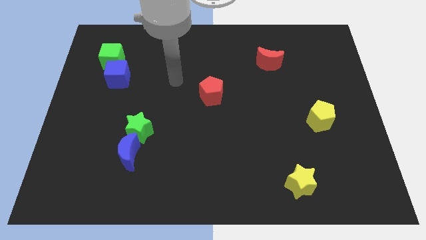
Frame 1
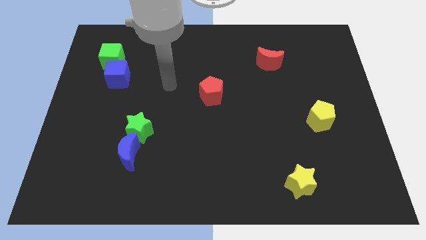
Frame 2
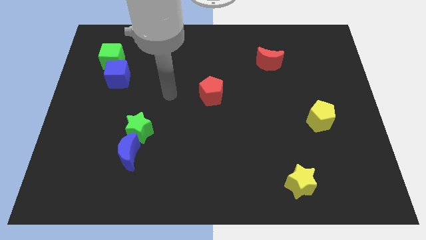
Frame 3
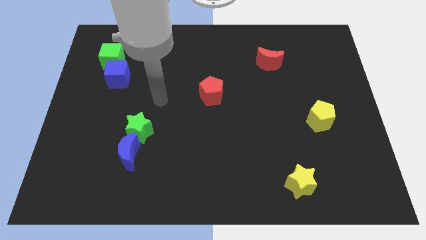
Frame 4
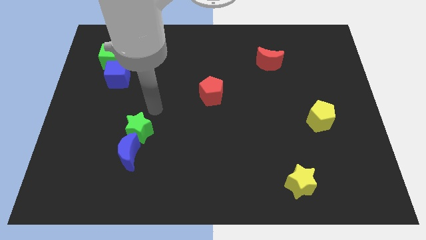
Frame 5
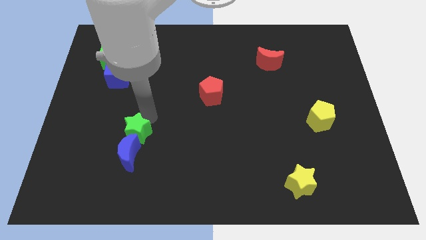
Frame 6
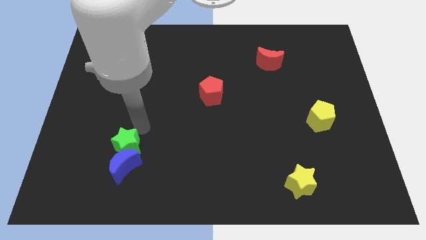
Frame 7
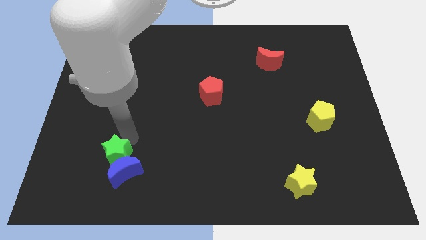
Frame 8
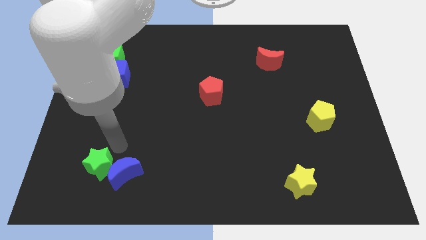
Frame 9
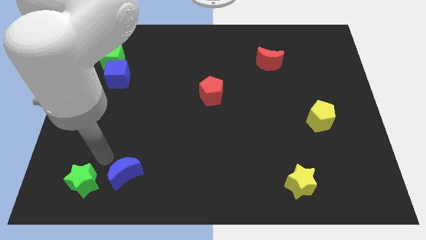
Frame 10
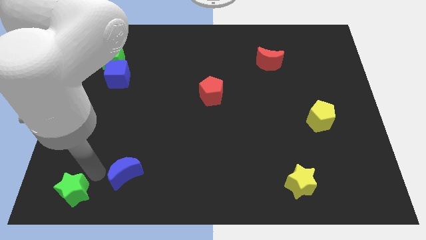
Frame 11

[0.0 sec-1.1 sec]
pull the blue moon apart from the green star

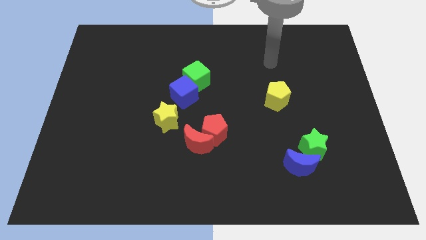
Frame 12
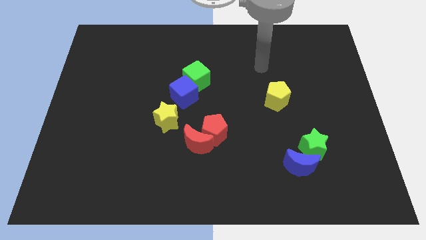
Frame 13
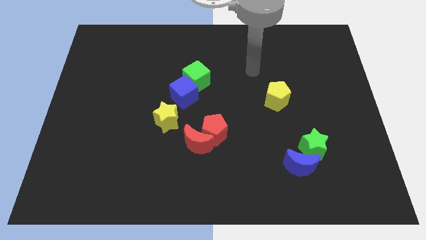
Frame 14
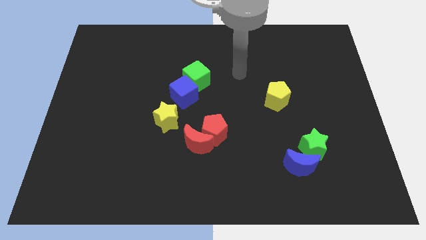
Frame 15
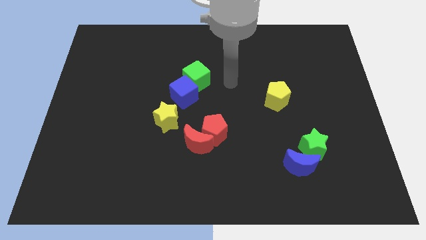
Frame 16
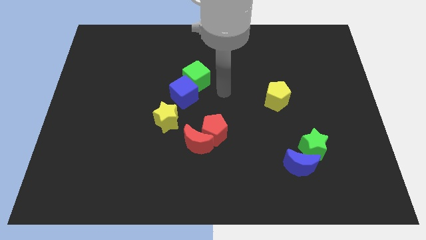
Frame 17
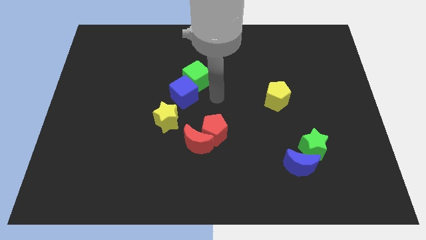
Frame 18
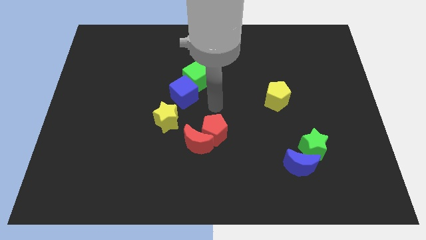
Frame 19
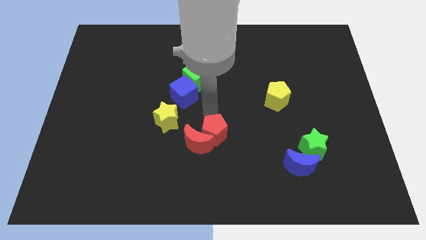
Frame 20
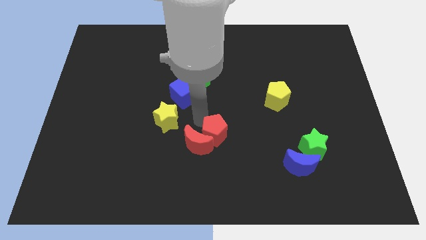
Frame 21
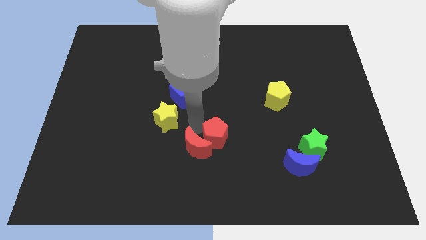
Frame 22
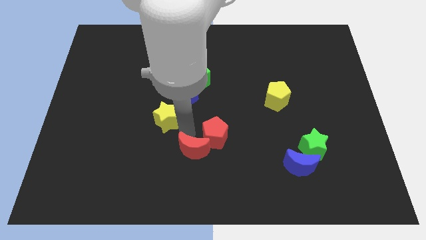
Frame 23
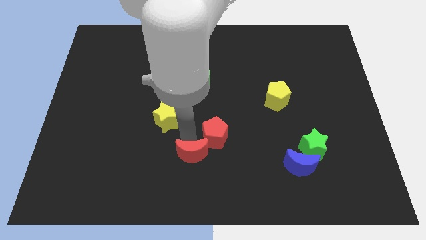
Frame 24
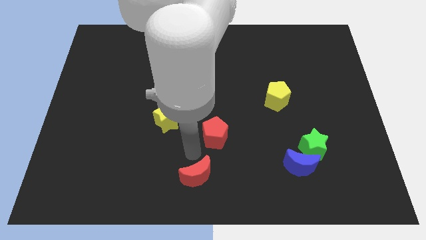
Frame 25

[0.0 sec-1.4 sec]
separate the red pentagon from the red moon

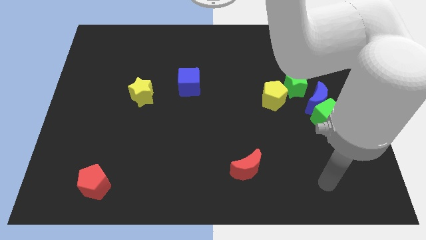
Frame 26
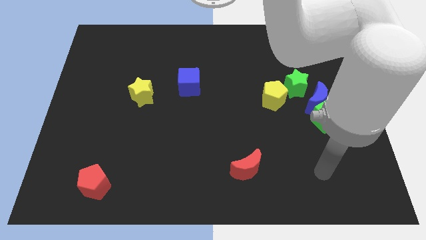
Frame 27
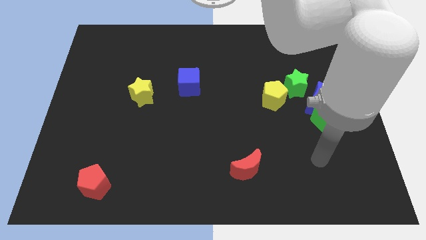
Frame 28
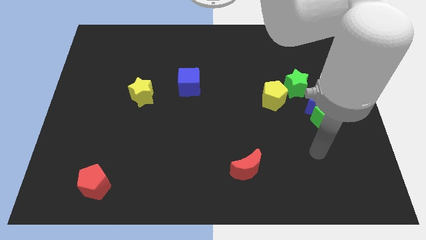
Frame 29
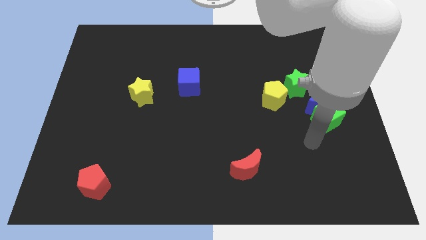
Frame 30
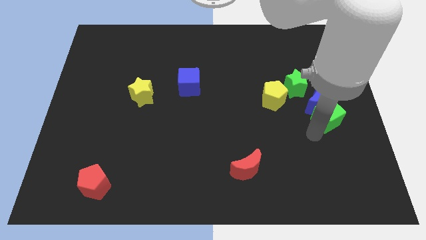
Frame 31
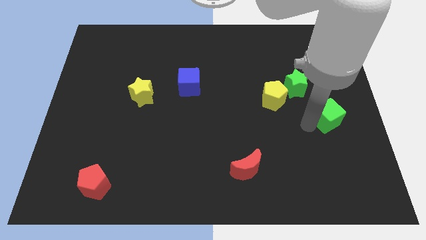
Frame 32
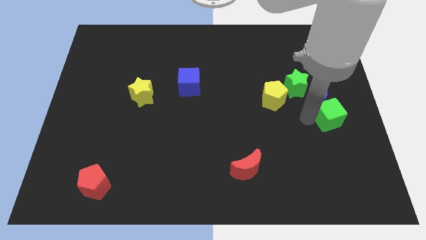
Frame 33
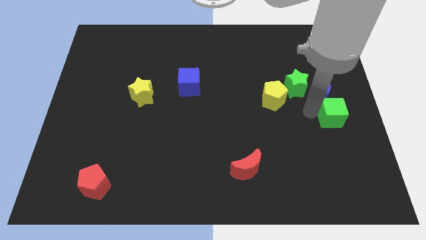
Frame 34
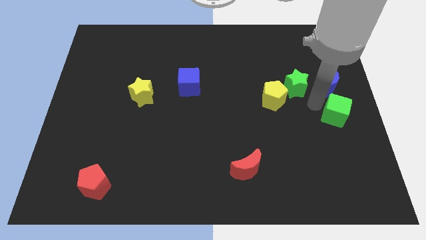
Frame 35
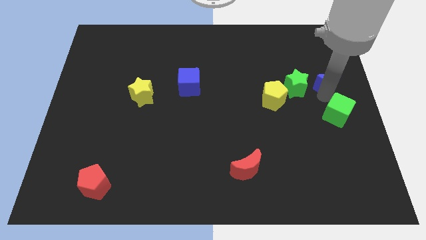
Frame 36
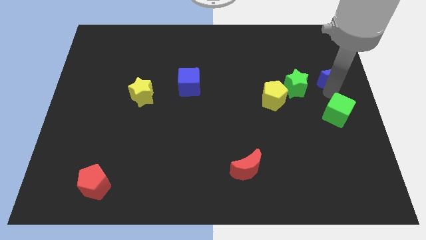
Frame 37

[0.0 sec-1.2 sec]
separate the green cube from the blue moon

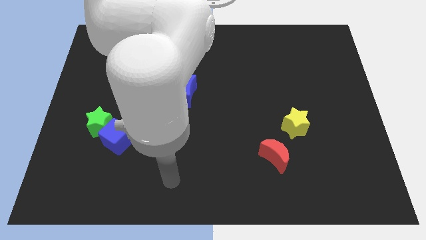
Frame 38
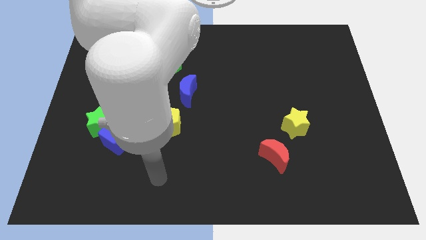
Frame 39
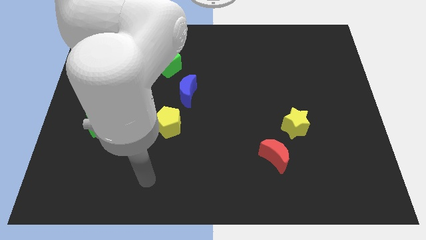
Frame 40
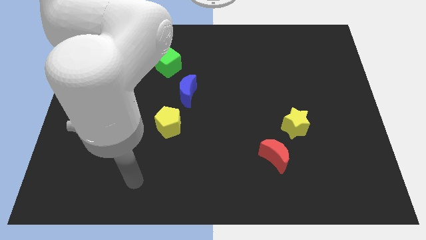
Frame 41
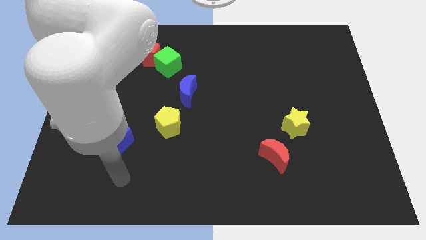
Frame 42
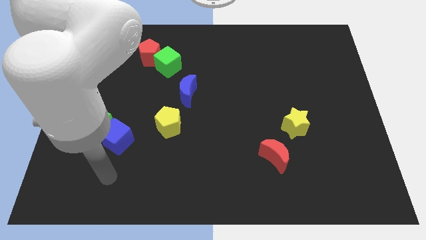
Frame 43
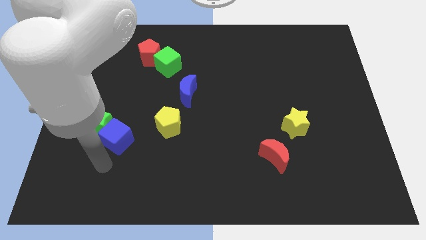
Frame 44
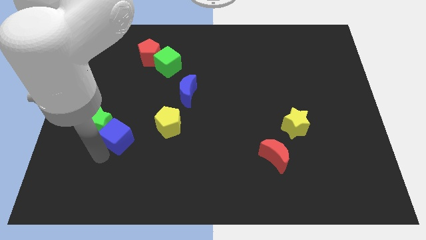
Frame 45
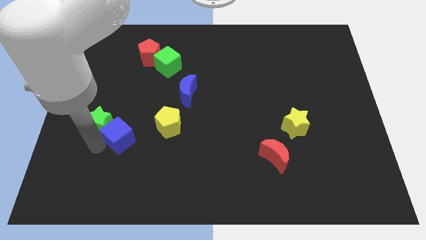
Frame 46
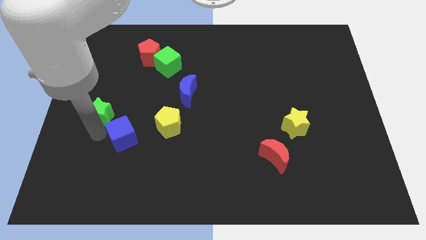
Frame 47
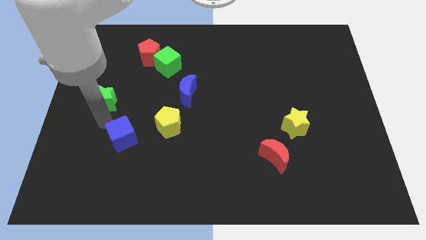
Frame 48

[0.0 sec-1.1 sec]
move the blue cube away from the green star

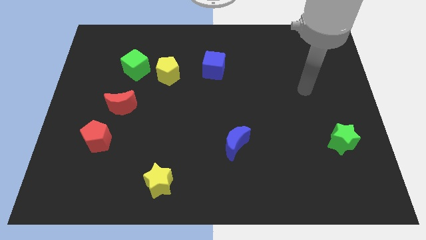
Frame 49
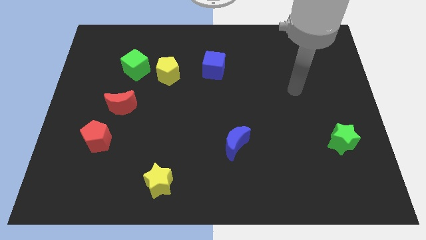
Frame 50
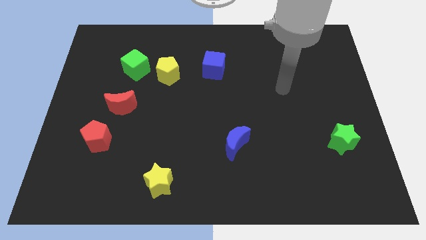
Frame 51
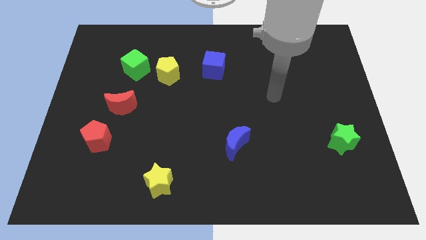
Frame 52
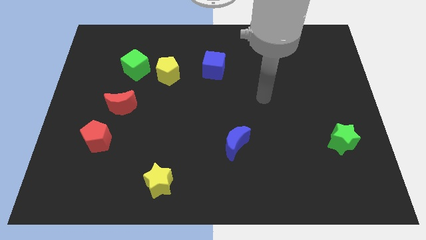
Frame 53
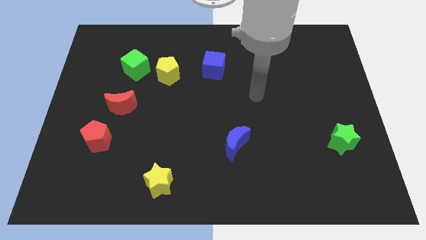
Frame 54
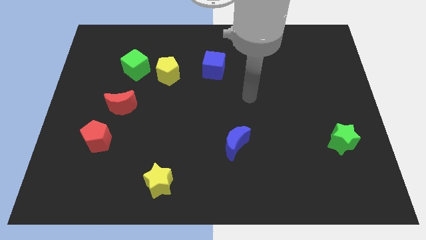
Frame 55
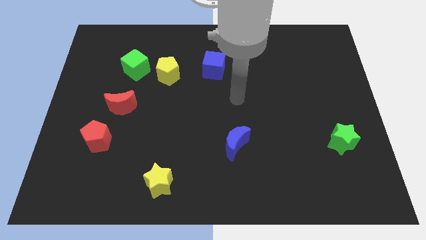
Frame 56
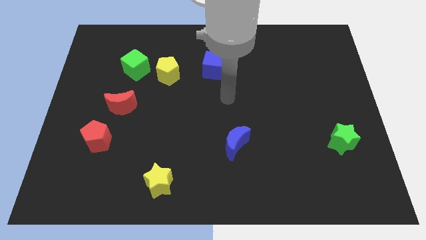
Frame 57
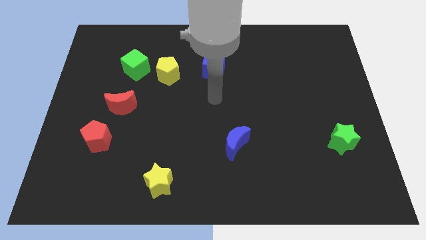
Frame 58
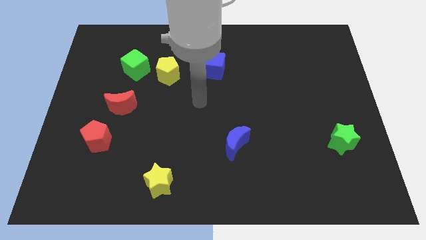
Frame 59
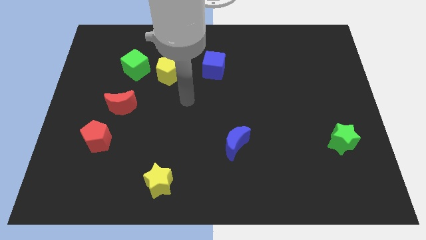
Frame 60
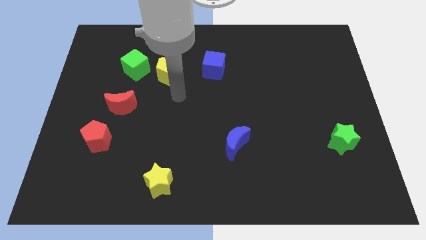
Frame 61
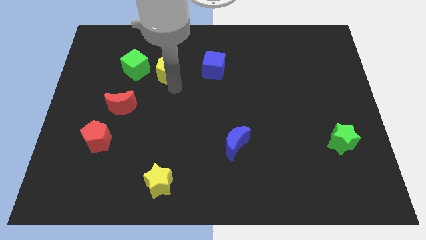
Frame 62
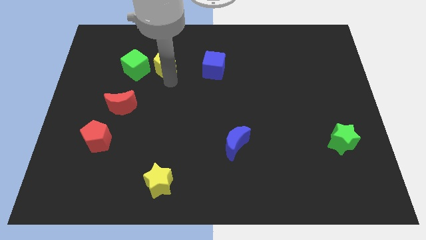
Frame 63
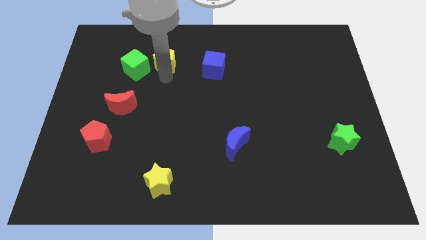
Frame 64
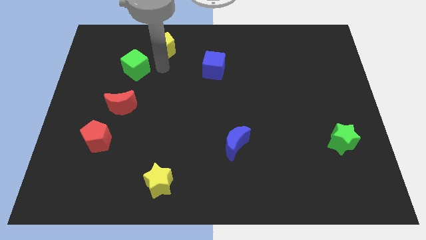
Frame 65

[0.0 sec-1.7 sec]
pull the green cube apart from the yellow pentagon

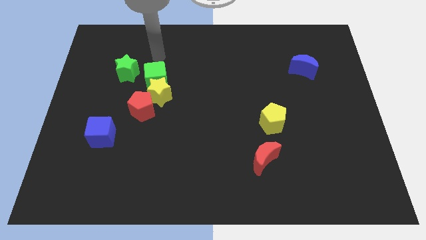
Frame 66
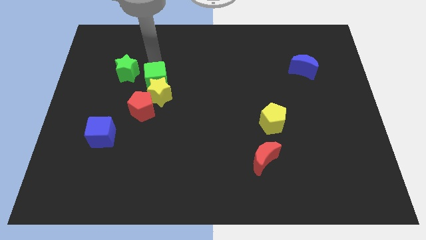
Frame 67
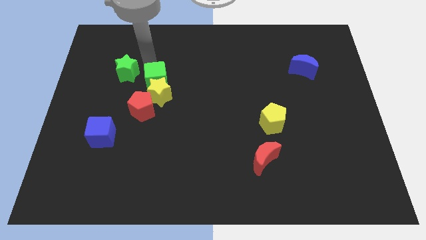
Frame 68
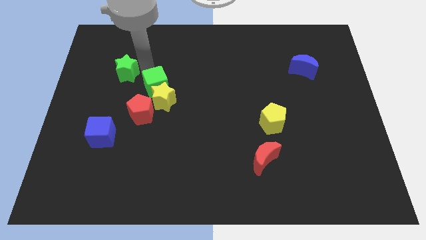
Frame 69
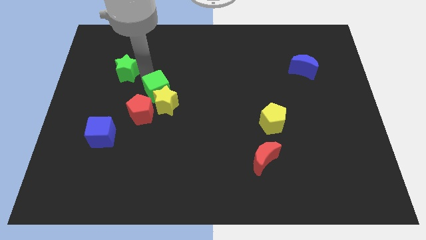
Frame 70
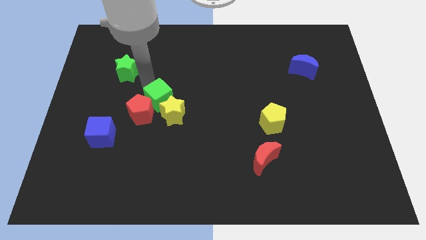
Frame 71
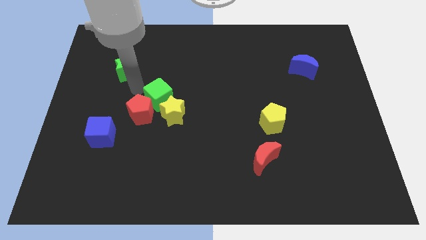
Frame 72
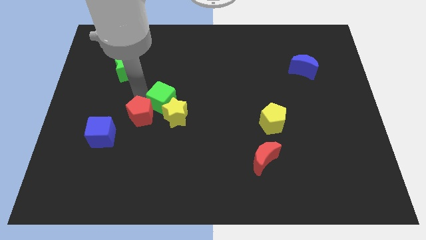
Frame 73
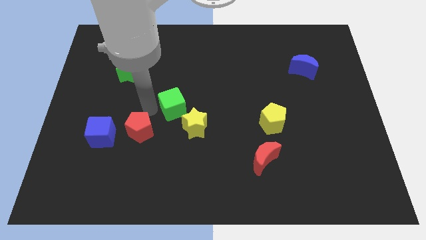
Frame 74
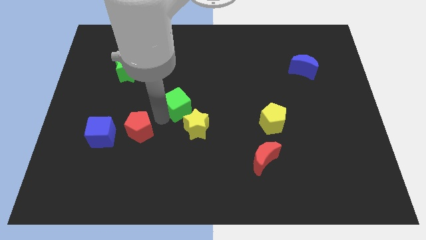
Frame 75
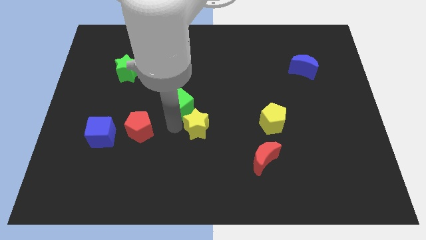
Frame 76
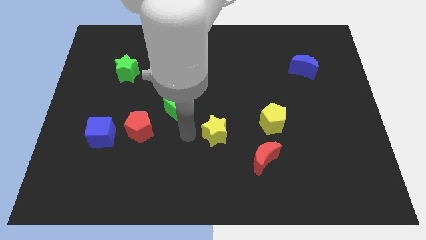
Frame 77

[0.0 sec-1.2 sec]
pull the yellow star apart from the red pentagon and green cube

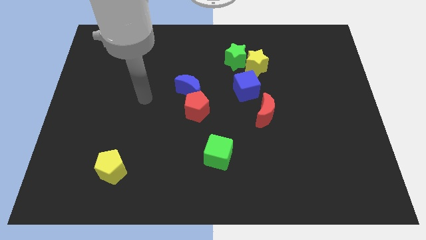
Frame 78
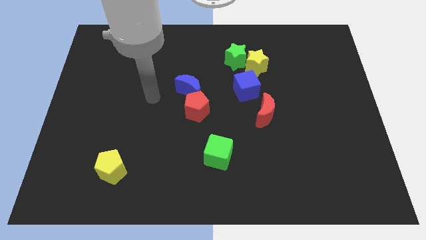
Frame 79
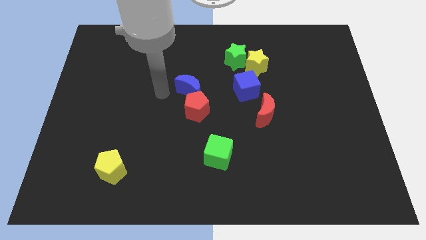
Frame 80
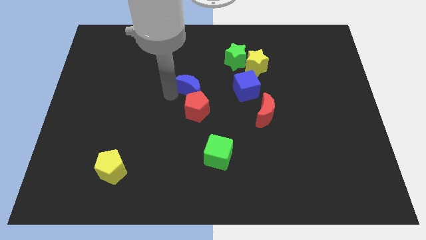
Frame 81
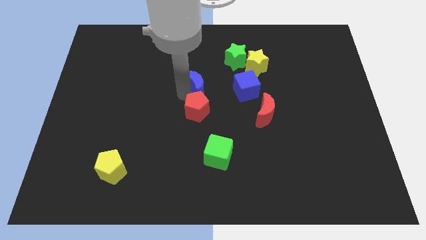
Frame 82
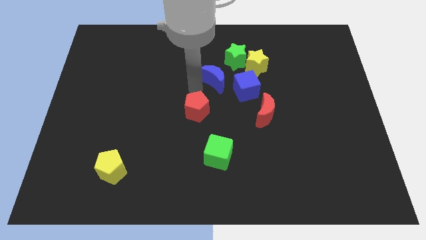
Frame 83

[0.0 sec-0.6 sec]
separate the red pentagon from the blue moon

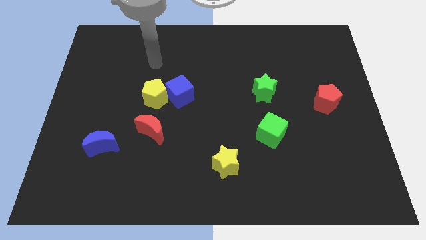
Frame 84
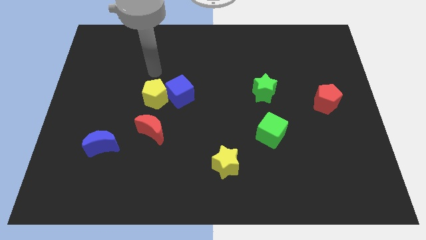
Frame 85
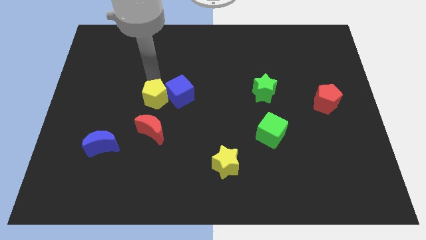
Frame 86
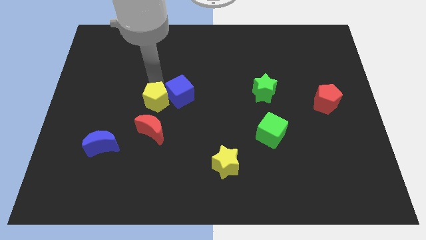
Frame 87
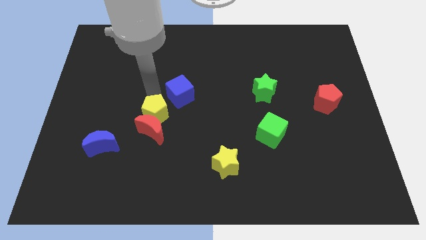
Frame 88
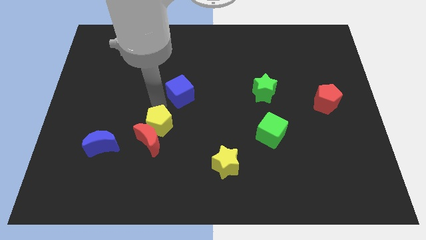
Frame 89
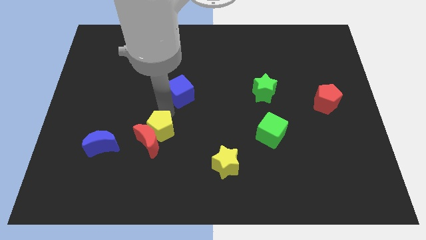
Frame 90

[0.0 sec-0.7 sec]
separate the blue cube from the yellow pentagon

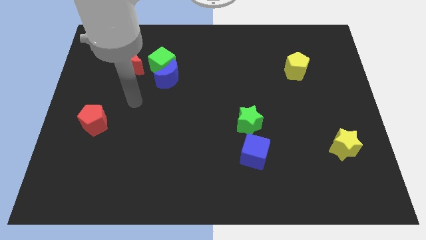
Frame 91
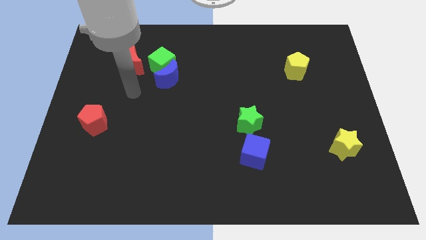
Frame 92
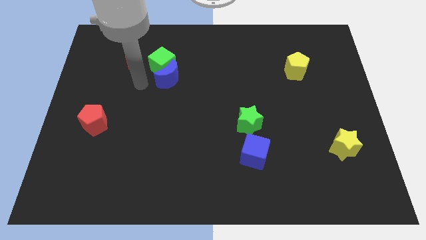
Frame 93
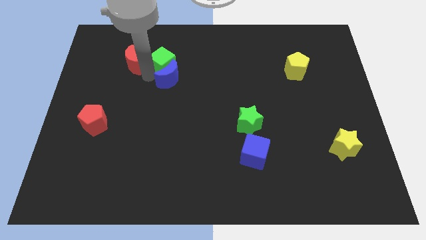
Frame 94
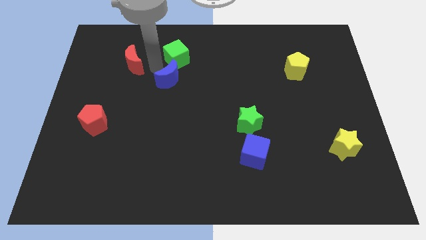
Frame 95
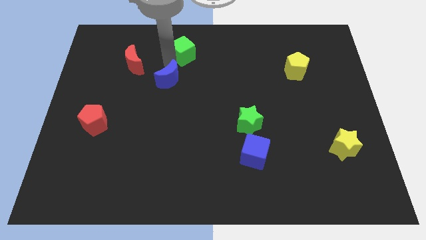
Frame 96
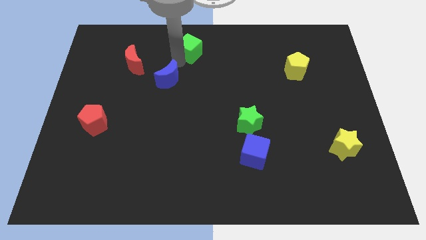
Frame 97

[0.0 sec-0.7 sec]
pull the blue moon apart from the green cube
